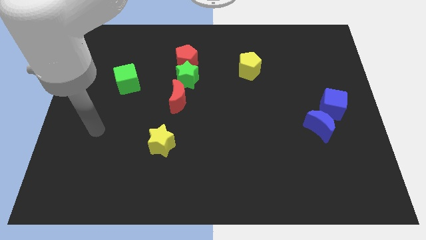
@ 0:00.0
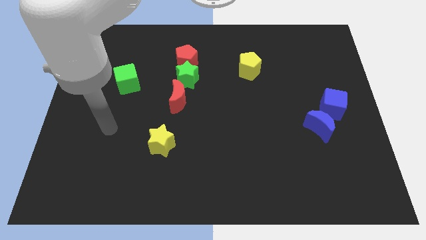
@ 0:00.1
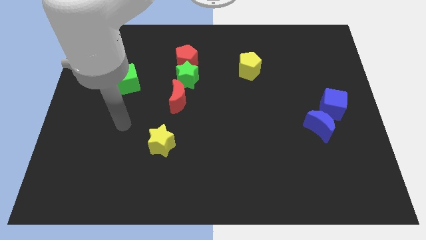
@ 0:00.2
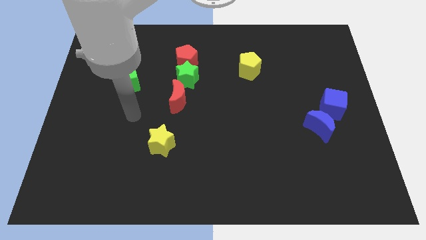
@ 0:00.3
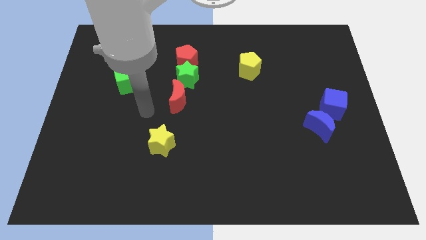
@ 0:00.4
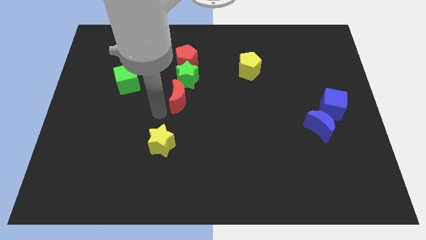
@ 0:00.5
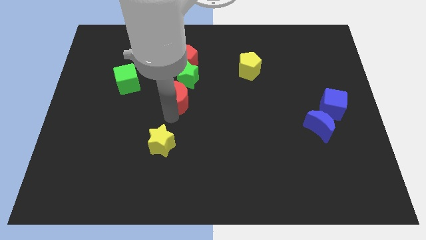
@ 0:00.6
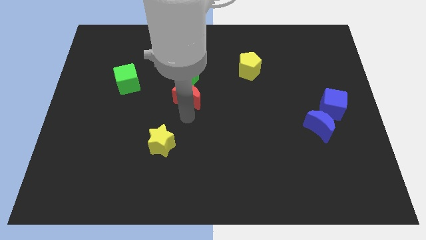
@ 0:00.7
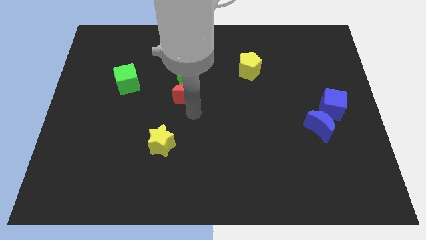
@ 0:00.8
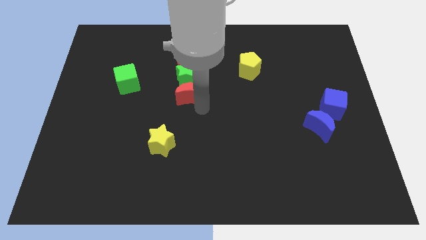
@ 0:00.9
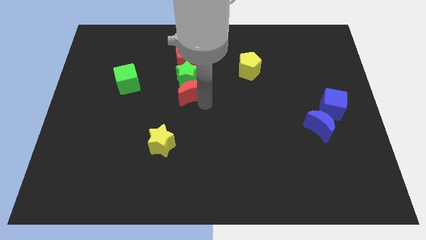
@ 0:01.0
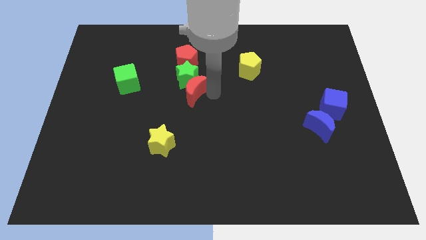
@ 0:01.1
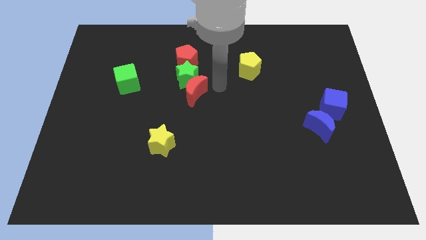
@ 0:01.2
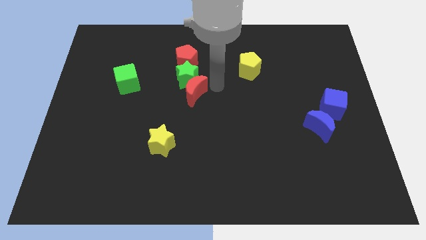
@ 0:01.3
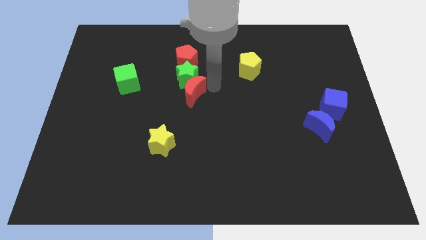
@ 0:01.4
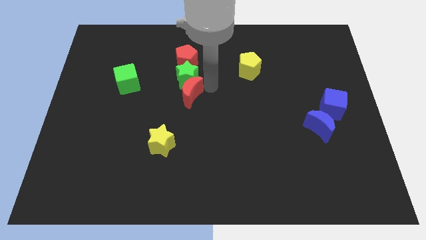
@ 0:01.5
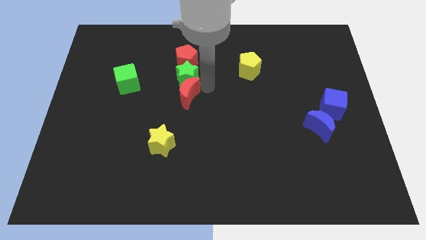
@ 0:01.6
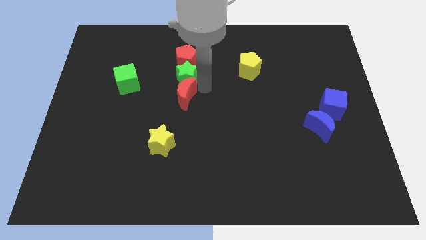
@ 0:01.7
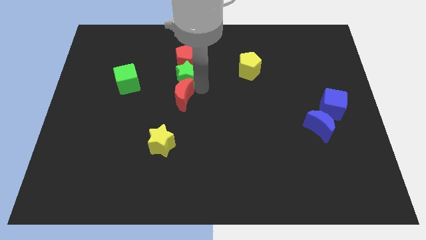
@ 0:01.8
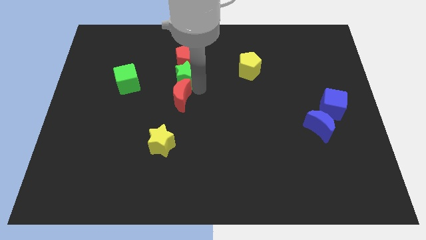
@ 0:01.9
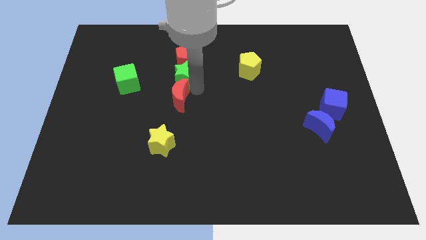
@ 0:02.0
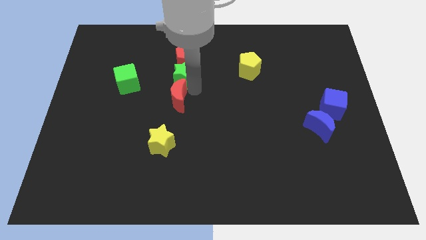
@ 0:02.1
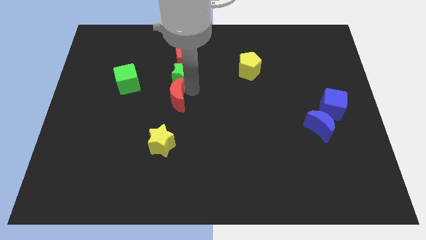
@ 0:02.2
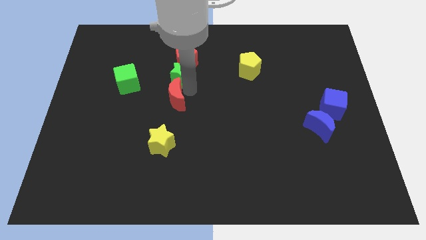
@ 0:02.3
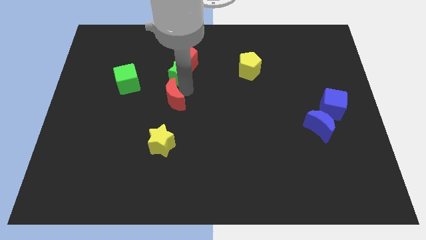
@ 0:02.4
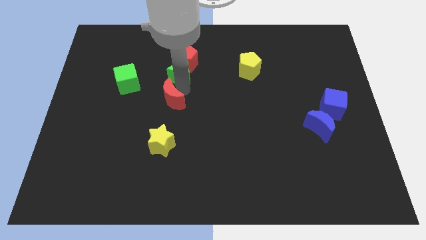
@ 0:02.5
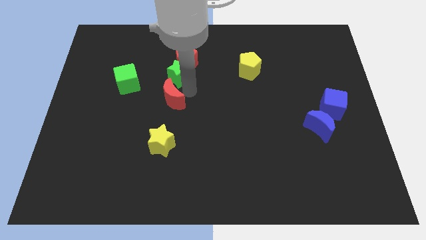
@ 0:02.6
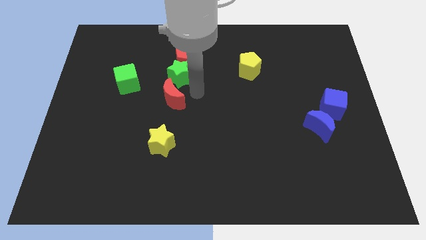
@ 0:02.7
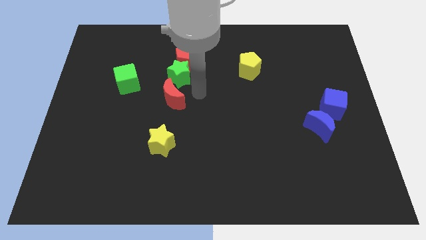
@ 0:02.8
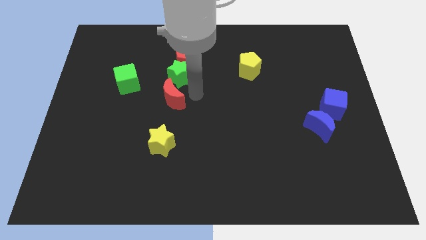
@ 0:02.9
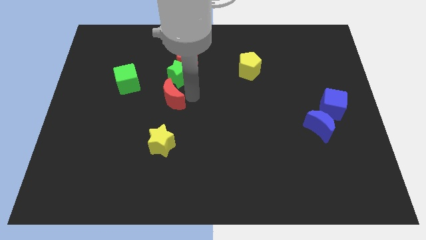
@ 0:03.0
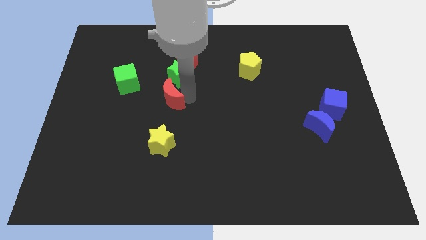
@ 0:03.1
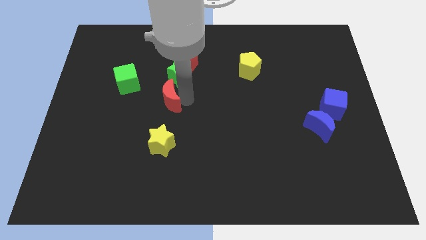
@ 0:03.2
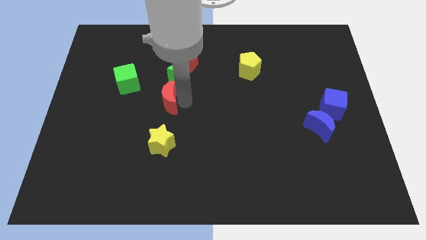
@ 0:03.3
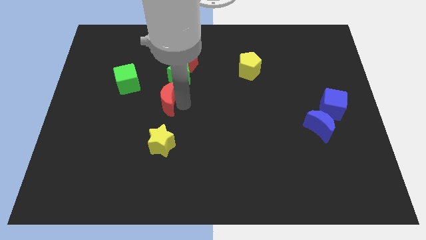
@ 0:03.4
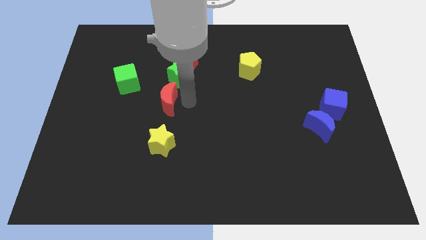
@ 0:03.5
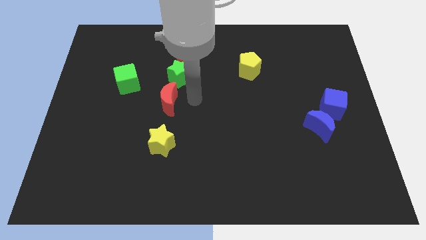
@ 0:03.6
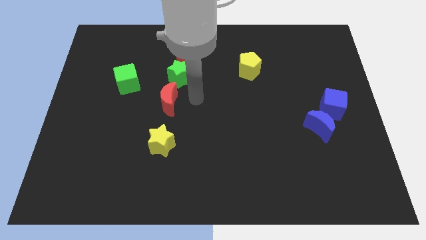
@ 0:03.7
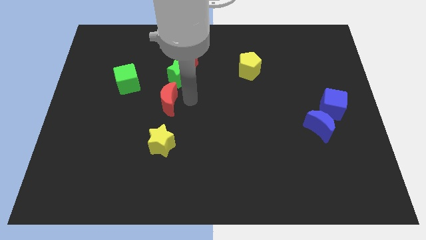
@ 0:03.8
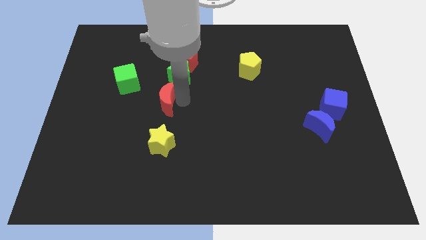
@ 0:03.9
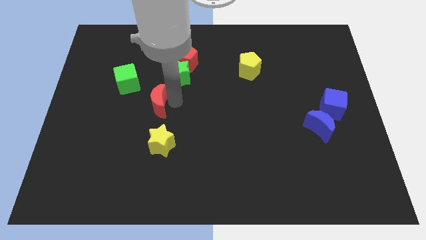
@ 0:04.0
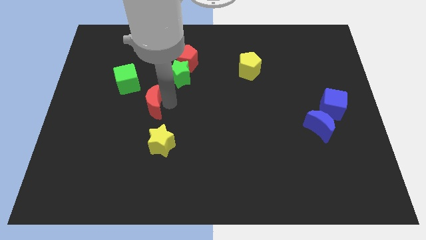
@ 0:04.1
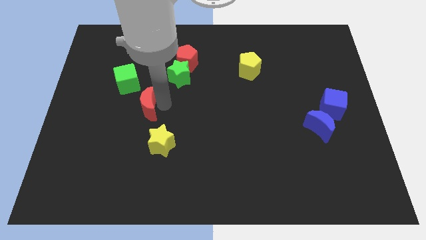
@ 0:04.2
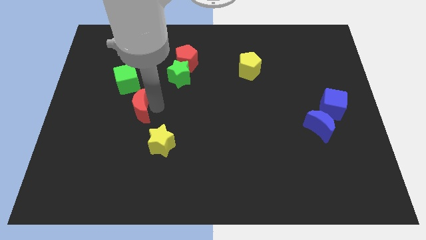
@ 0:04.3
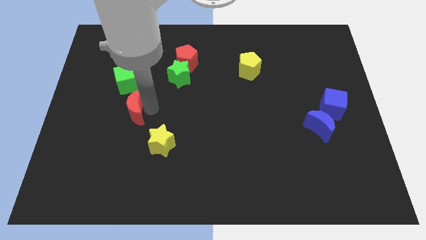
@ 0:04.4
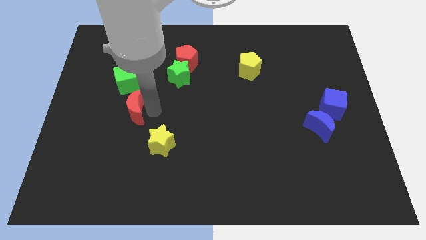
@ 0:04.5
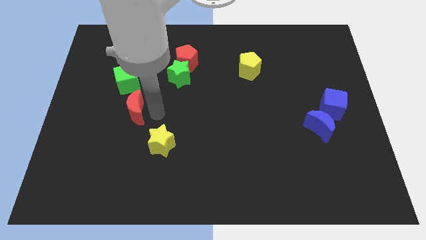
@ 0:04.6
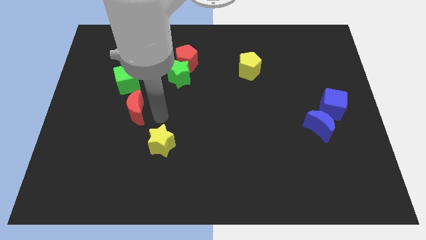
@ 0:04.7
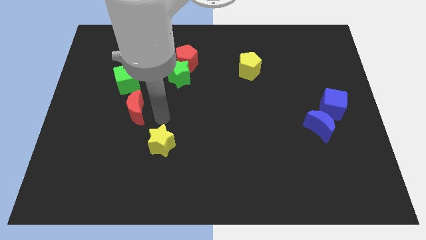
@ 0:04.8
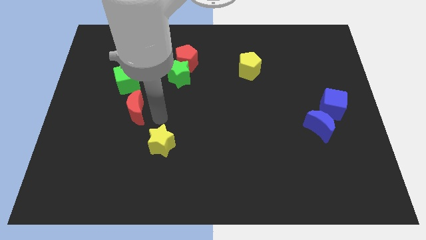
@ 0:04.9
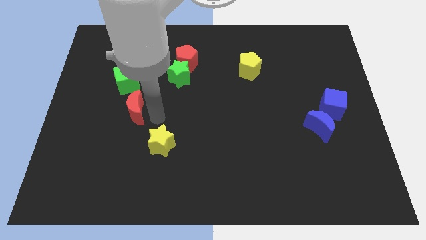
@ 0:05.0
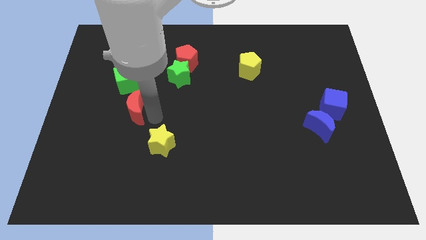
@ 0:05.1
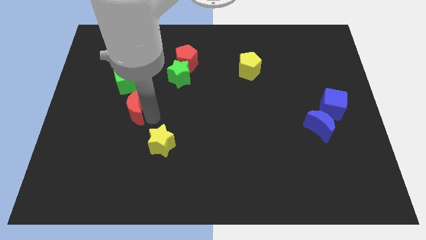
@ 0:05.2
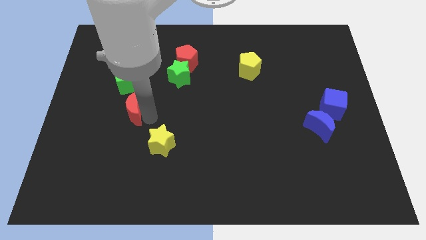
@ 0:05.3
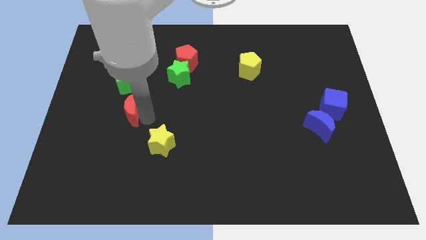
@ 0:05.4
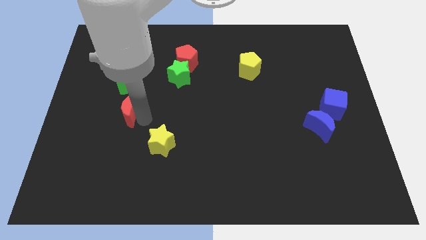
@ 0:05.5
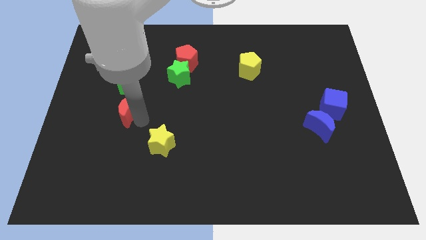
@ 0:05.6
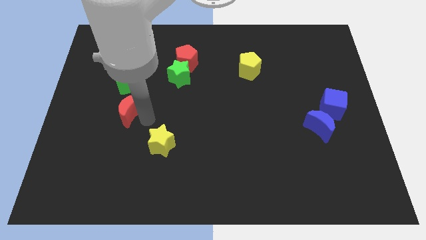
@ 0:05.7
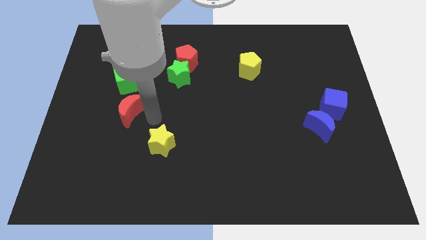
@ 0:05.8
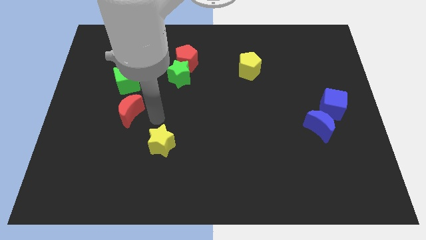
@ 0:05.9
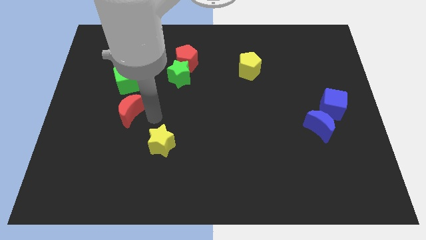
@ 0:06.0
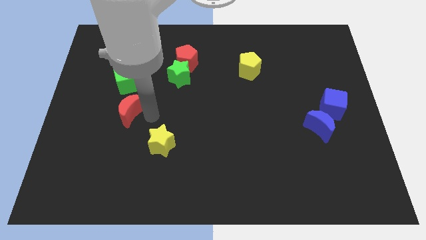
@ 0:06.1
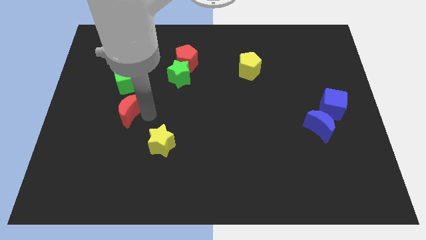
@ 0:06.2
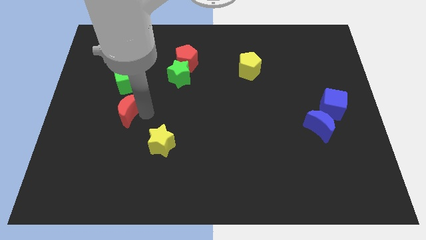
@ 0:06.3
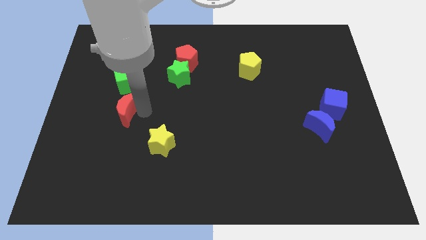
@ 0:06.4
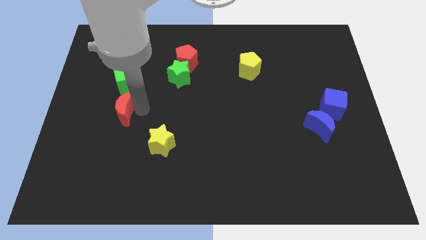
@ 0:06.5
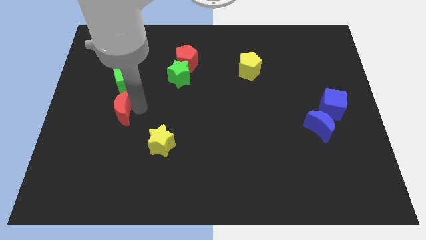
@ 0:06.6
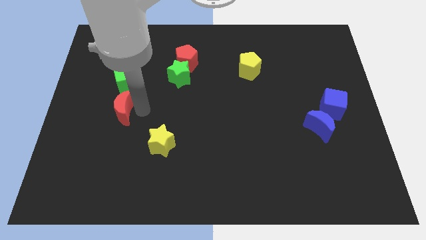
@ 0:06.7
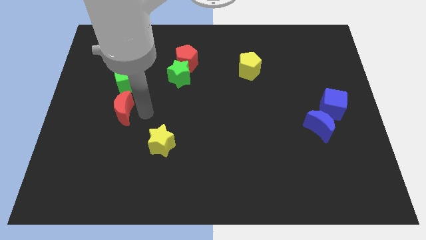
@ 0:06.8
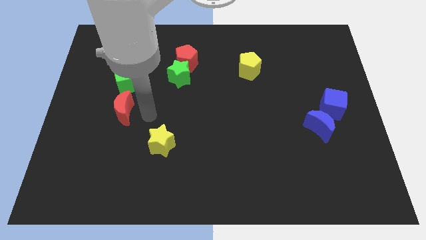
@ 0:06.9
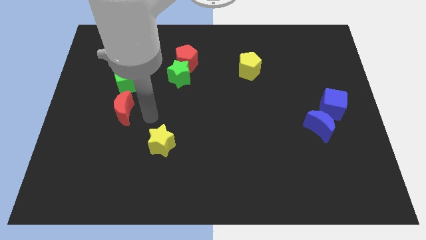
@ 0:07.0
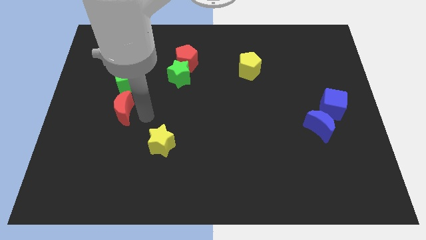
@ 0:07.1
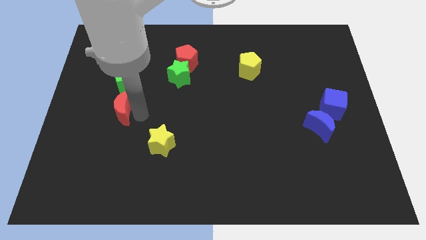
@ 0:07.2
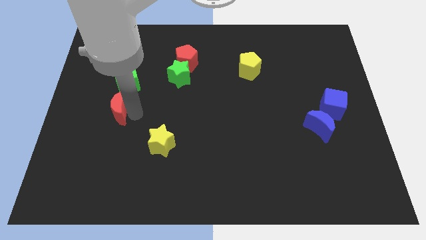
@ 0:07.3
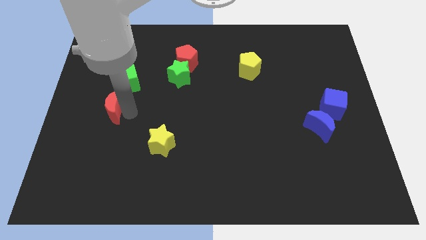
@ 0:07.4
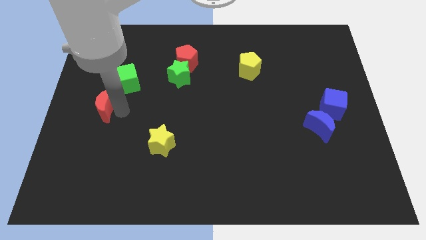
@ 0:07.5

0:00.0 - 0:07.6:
push the red moon to the left side
